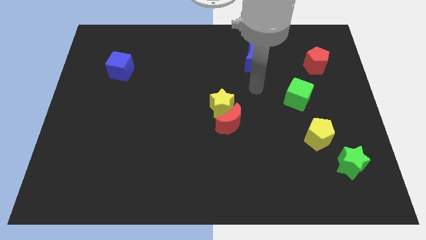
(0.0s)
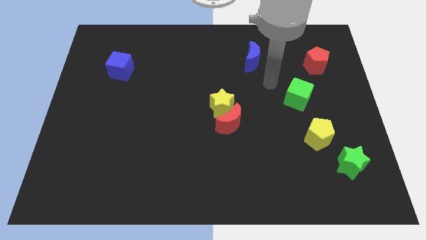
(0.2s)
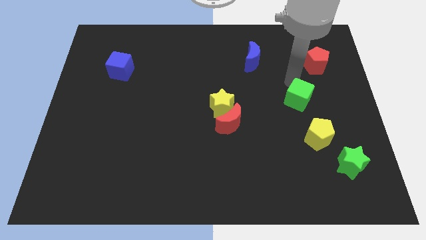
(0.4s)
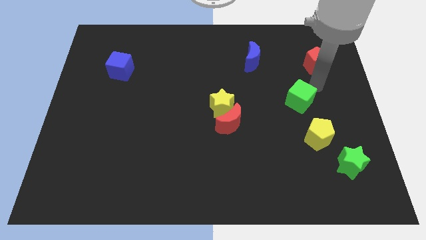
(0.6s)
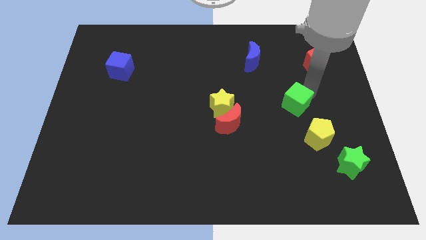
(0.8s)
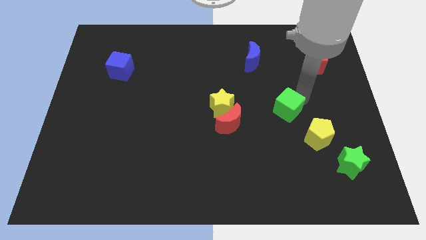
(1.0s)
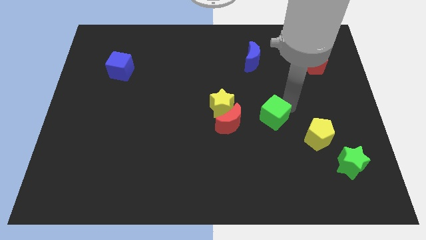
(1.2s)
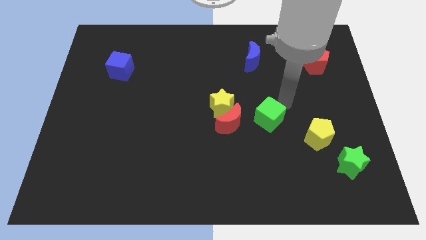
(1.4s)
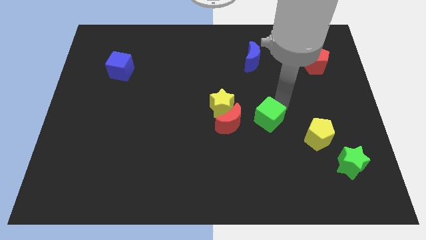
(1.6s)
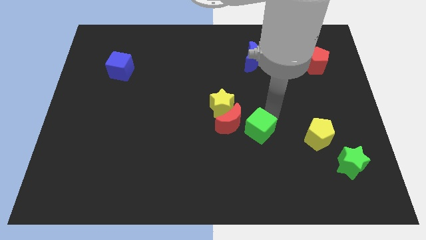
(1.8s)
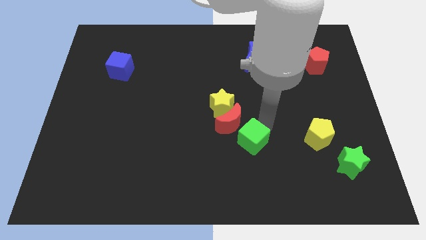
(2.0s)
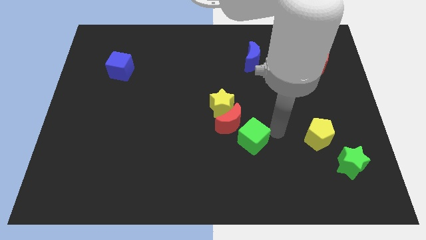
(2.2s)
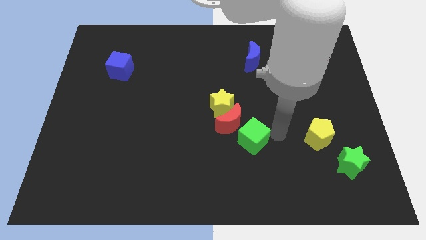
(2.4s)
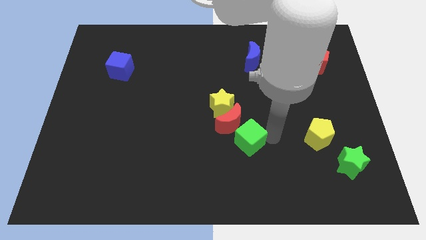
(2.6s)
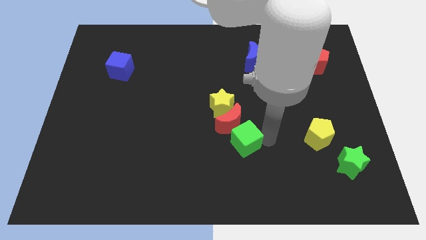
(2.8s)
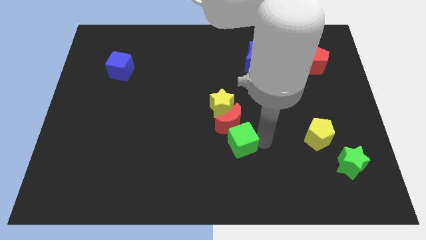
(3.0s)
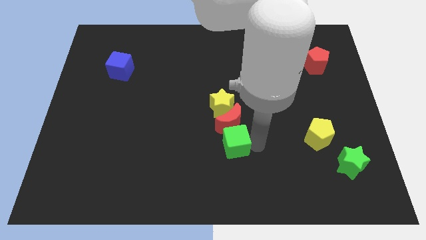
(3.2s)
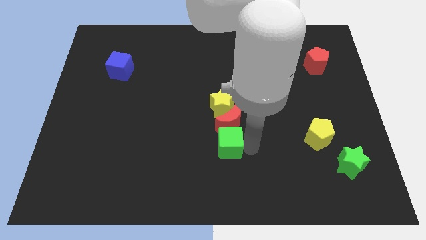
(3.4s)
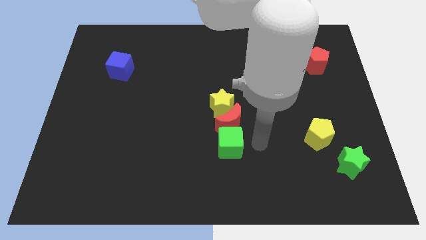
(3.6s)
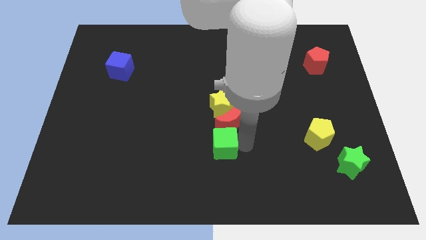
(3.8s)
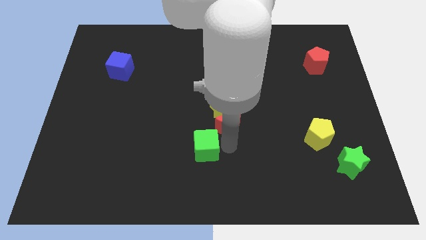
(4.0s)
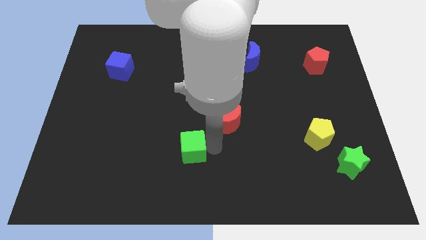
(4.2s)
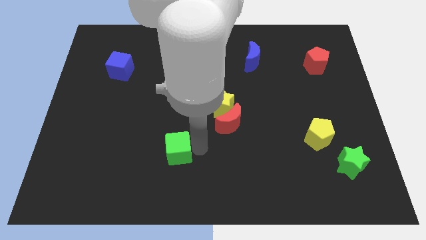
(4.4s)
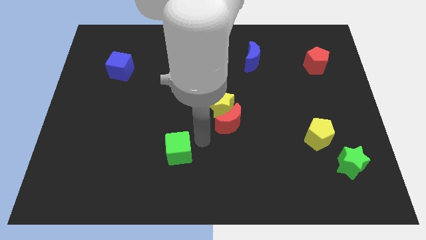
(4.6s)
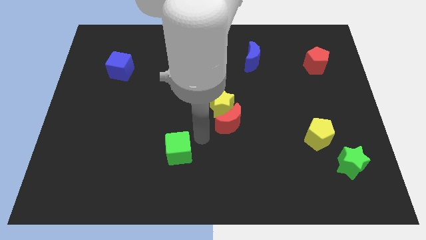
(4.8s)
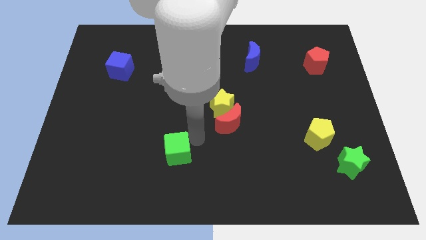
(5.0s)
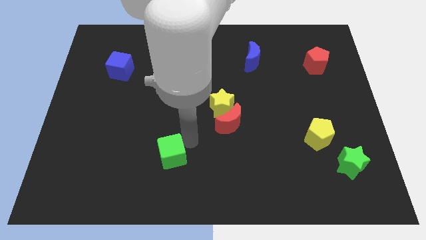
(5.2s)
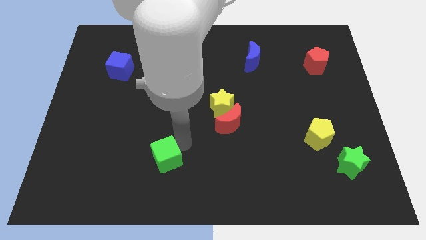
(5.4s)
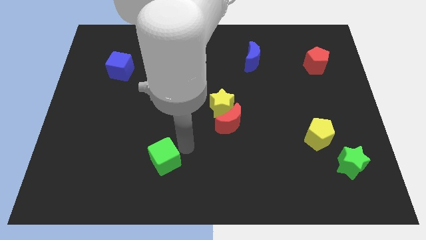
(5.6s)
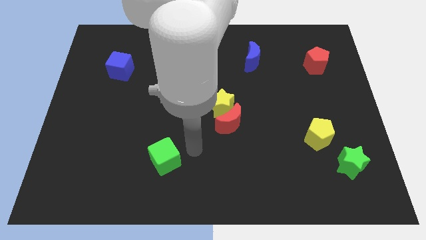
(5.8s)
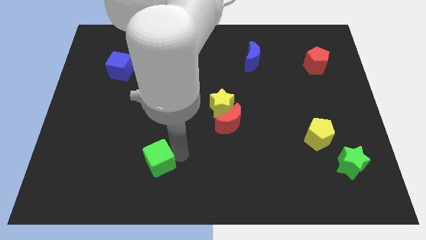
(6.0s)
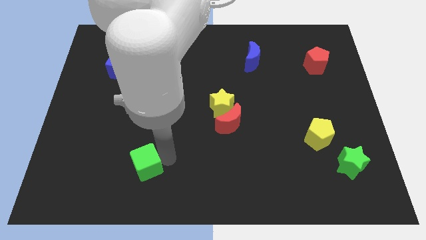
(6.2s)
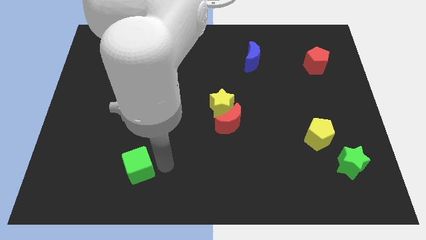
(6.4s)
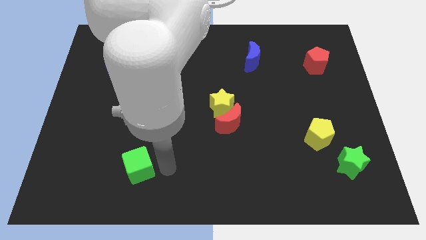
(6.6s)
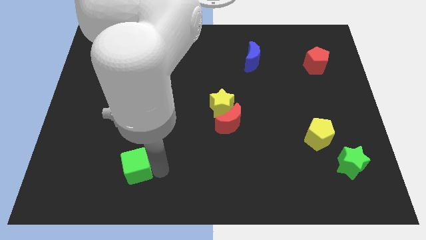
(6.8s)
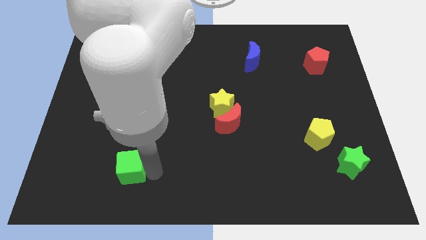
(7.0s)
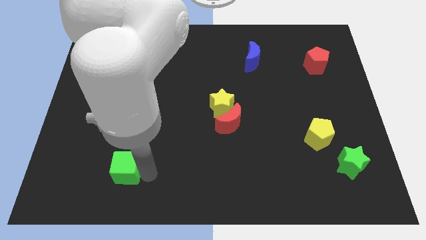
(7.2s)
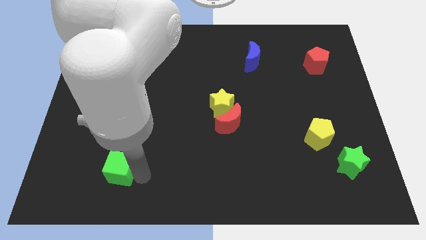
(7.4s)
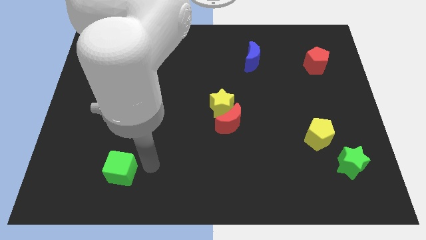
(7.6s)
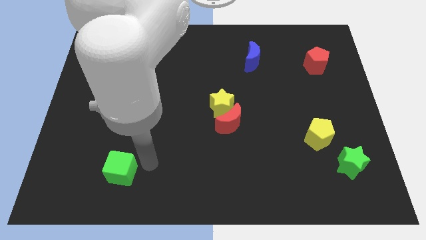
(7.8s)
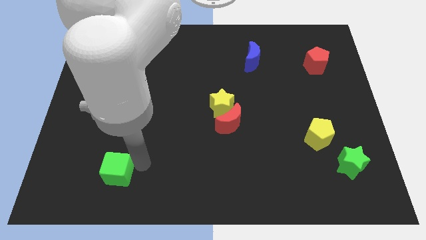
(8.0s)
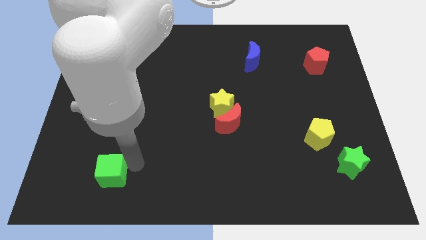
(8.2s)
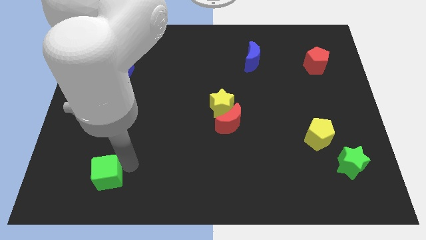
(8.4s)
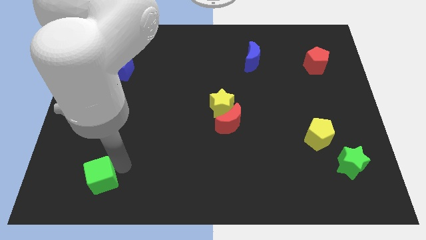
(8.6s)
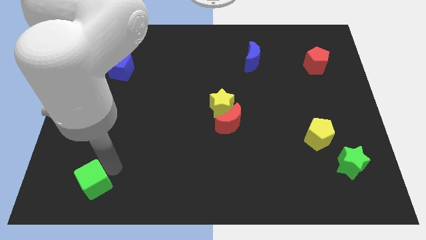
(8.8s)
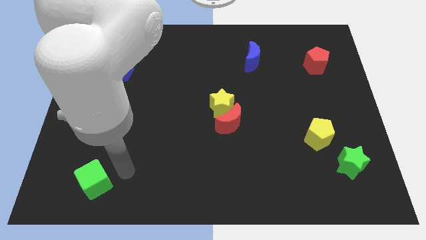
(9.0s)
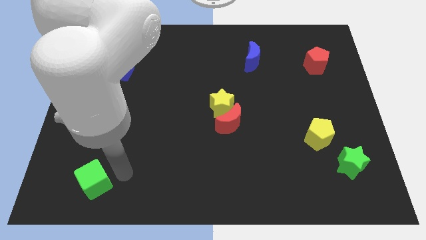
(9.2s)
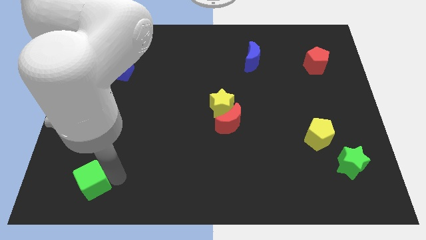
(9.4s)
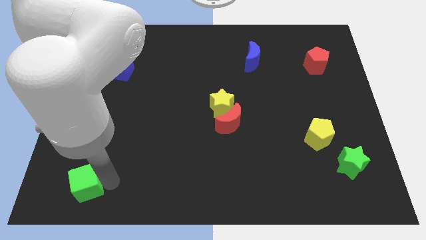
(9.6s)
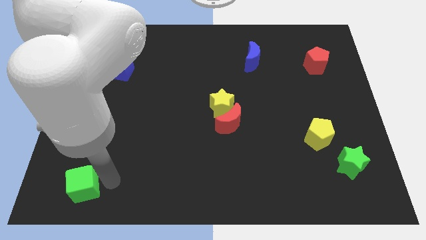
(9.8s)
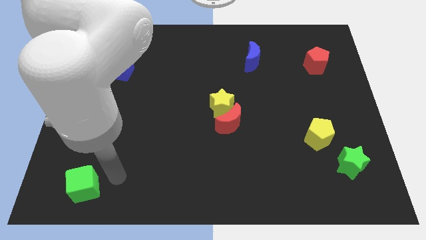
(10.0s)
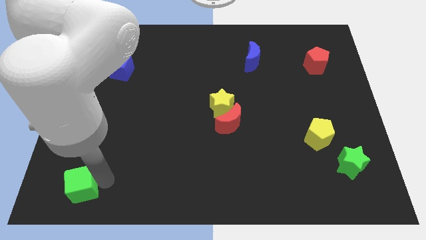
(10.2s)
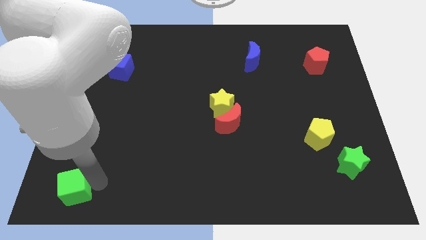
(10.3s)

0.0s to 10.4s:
slide the green cube to the bottom left corner
